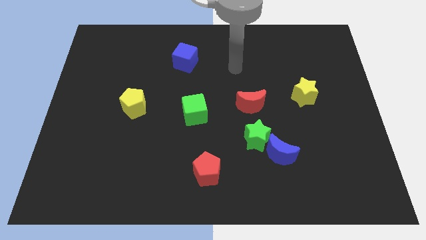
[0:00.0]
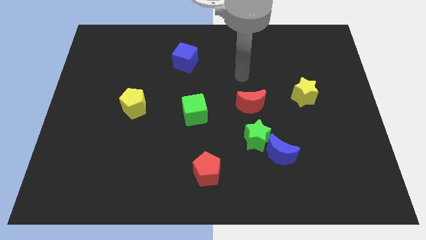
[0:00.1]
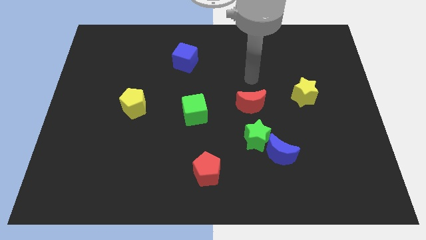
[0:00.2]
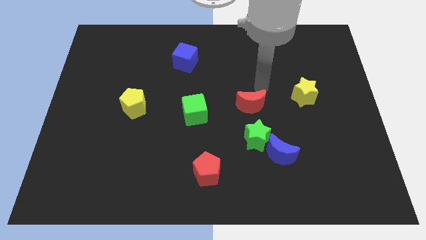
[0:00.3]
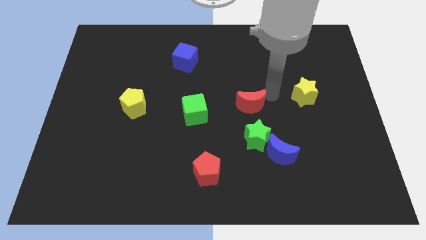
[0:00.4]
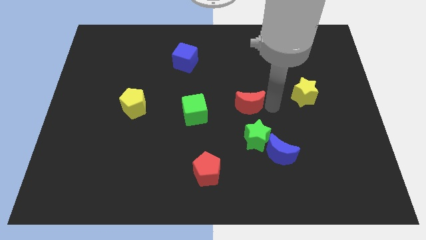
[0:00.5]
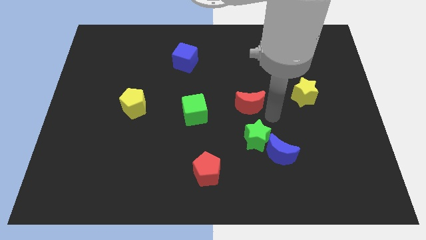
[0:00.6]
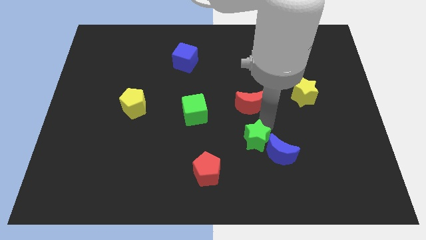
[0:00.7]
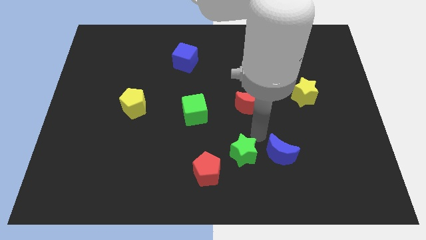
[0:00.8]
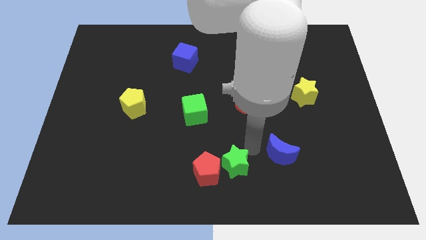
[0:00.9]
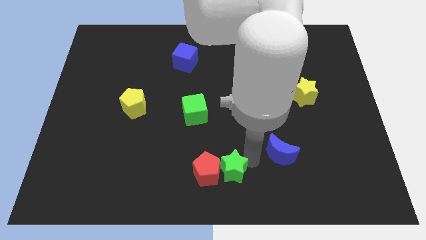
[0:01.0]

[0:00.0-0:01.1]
separate the blue moon from the green star

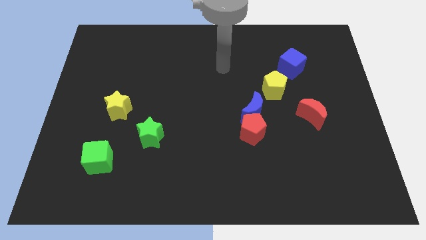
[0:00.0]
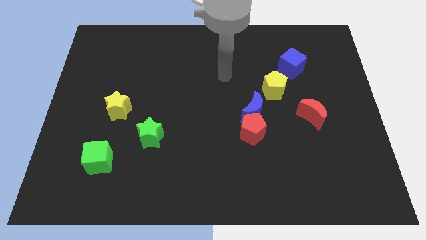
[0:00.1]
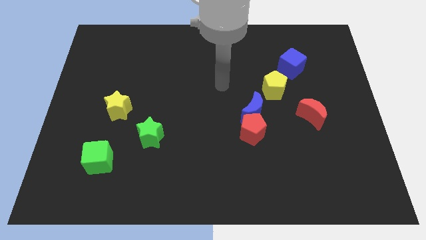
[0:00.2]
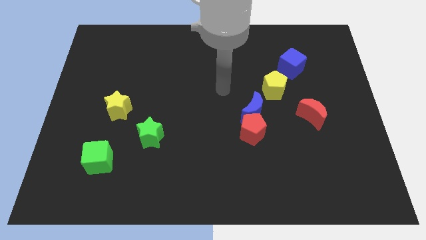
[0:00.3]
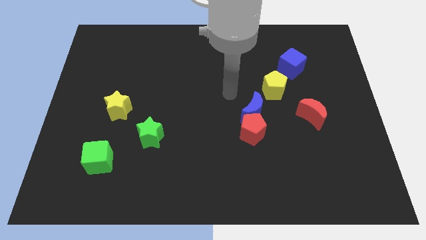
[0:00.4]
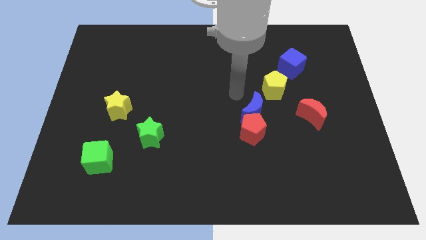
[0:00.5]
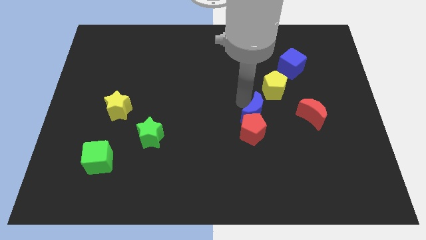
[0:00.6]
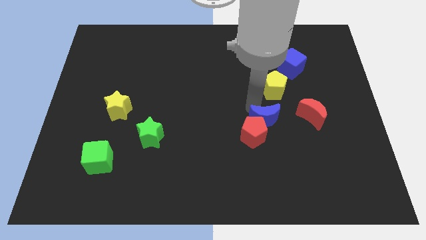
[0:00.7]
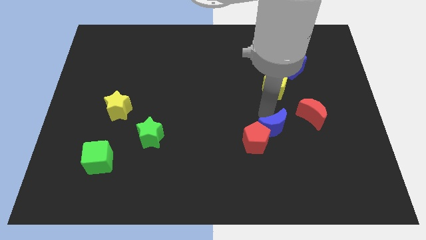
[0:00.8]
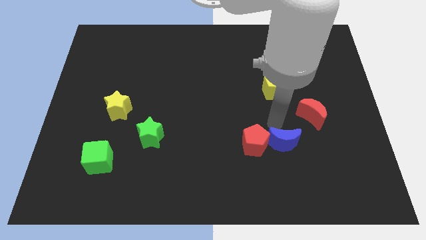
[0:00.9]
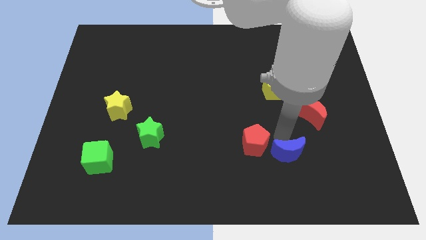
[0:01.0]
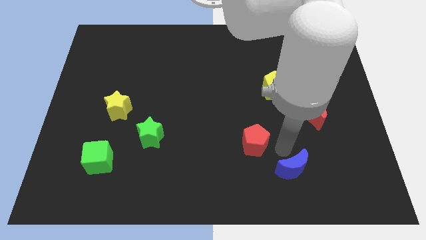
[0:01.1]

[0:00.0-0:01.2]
separate the red pentagon from the blue moon

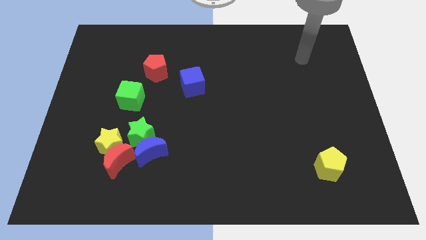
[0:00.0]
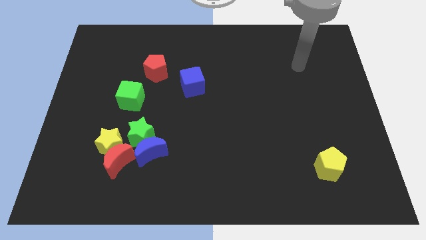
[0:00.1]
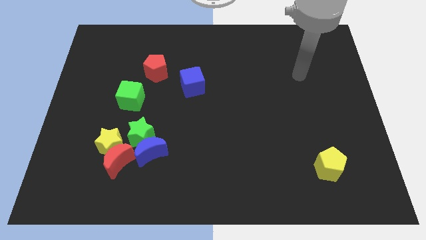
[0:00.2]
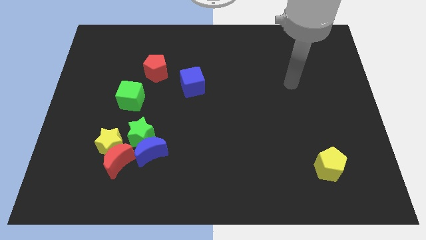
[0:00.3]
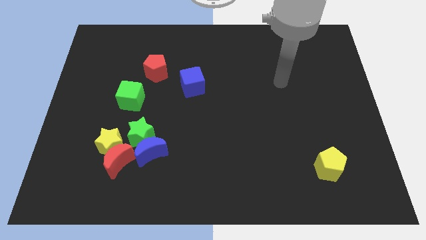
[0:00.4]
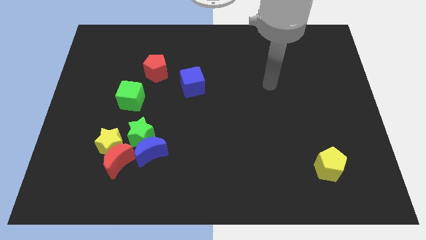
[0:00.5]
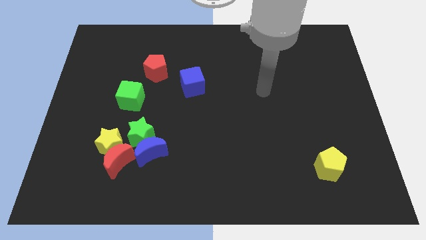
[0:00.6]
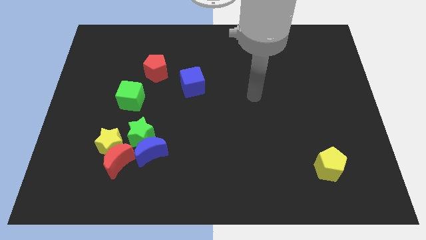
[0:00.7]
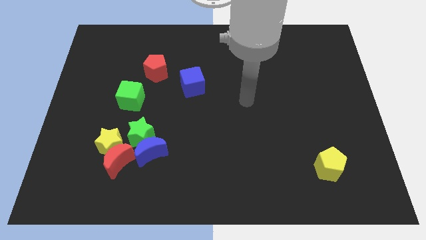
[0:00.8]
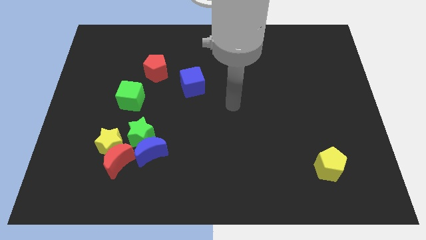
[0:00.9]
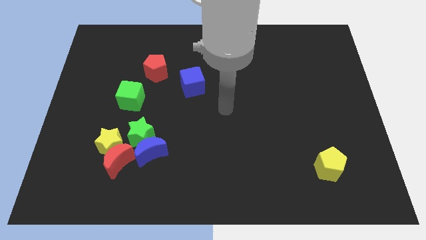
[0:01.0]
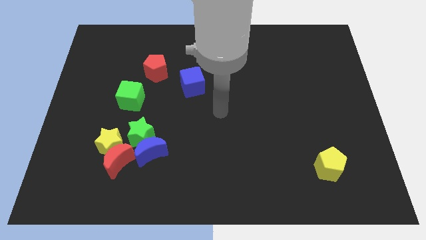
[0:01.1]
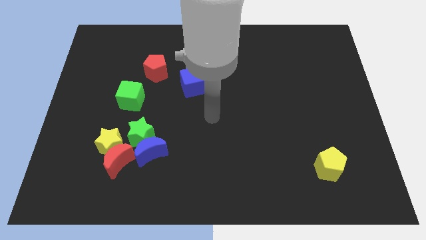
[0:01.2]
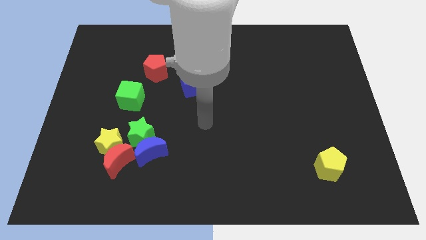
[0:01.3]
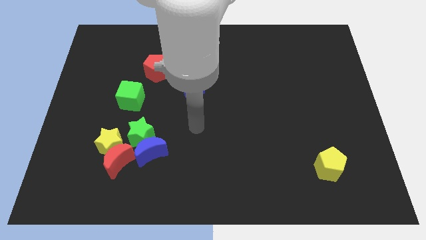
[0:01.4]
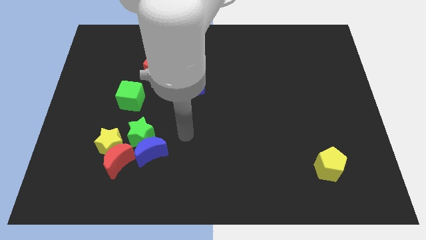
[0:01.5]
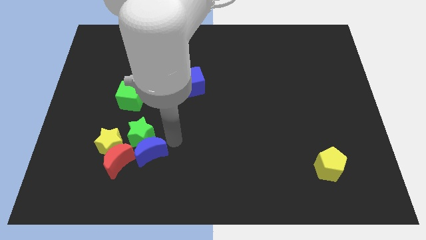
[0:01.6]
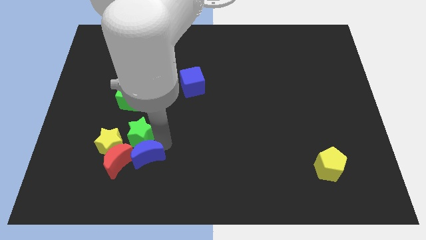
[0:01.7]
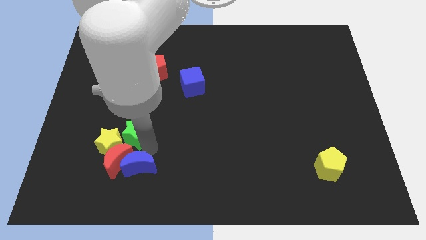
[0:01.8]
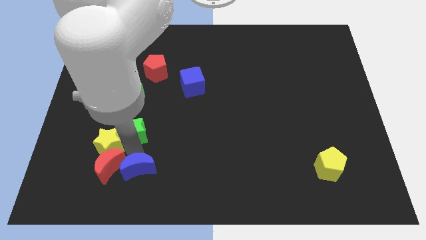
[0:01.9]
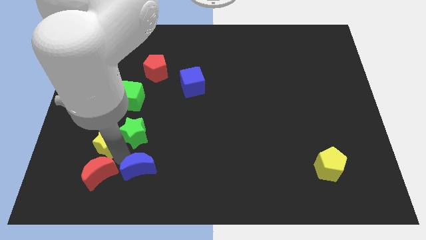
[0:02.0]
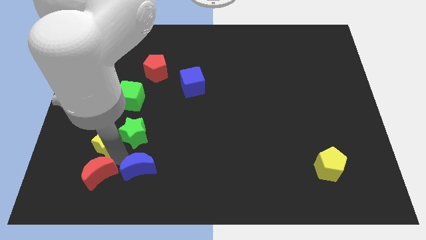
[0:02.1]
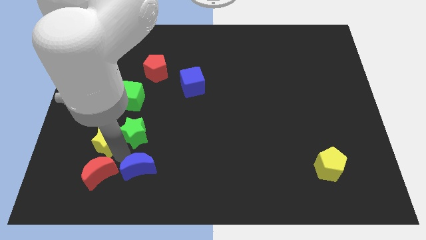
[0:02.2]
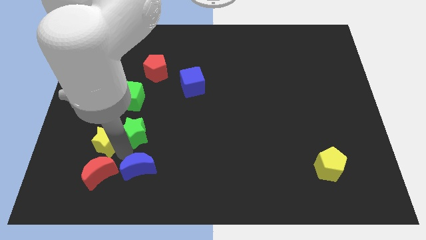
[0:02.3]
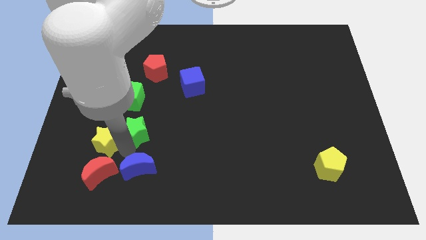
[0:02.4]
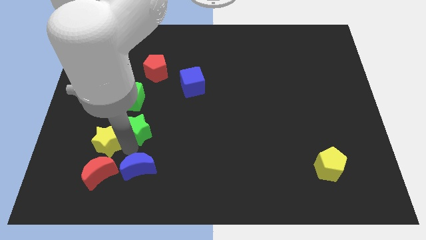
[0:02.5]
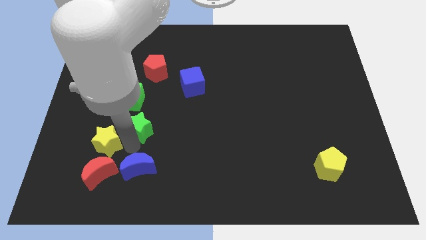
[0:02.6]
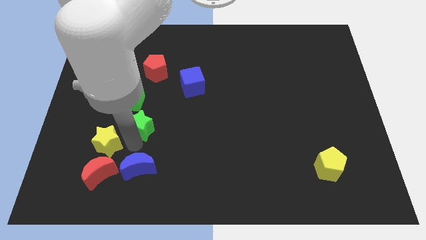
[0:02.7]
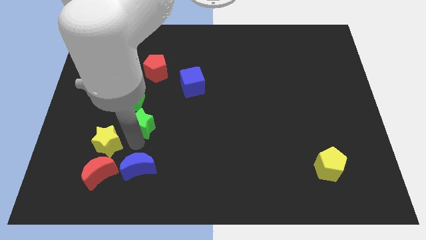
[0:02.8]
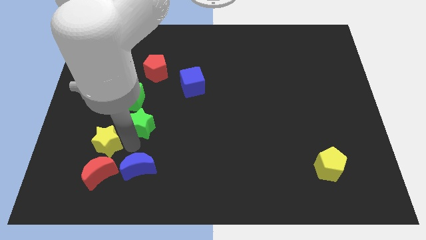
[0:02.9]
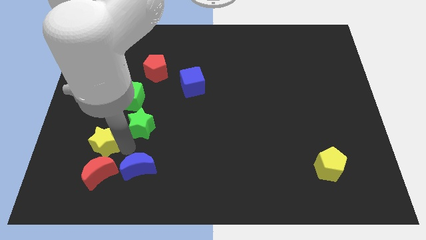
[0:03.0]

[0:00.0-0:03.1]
move the green star away from the group

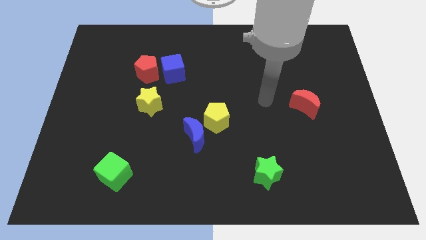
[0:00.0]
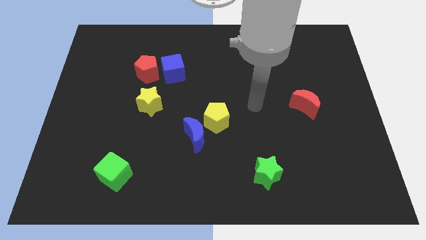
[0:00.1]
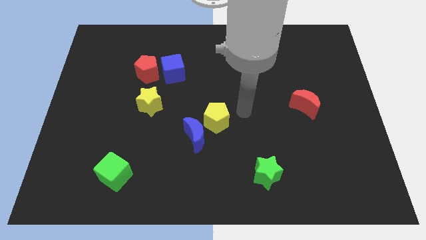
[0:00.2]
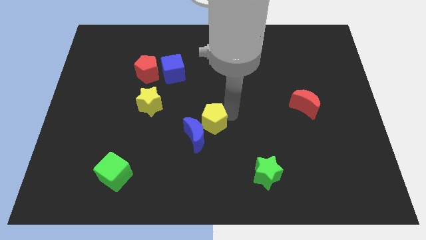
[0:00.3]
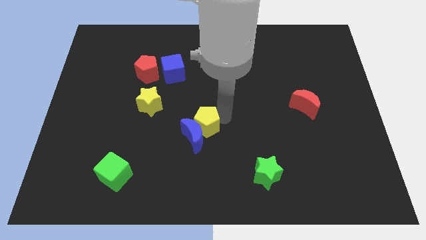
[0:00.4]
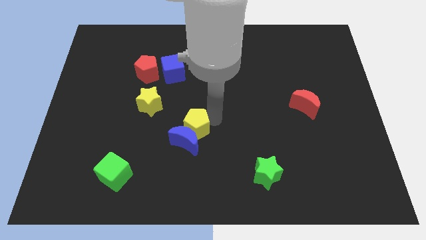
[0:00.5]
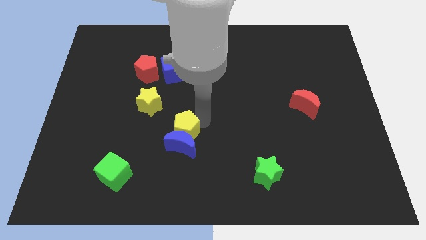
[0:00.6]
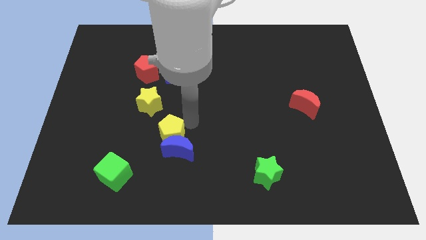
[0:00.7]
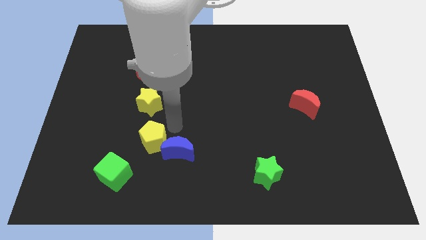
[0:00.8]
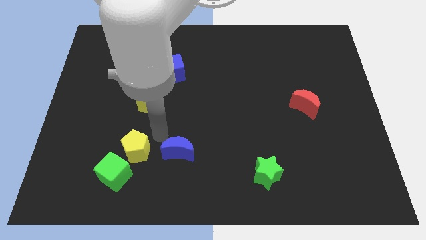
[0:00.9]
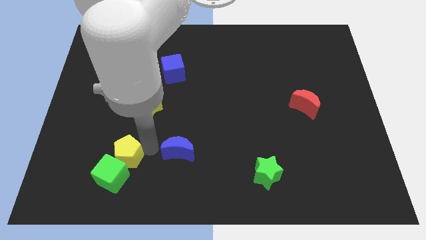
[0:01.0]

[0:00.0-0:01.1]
separate the blue moon from the yellow pentagon

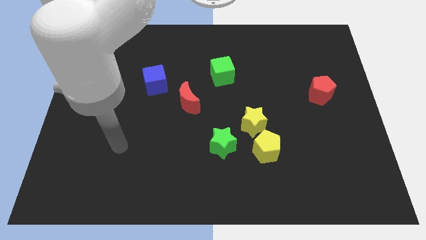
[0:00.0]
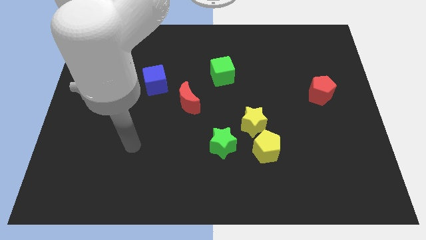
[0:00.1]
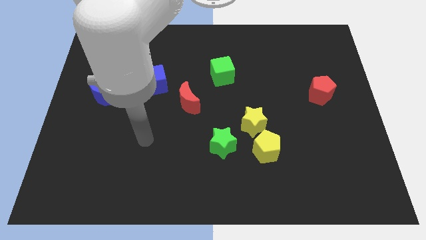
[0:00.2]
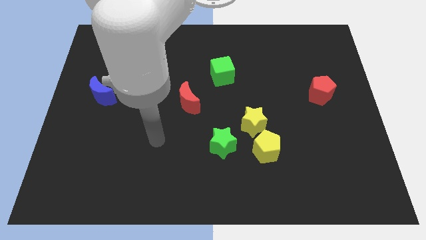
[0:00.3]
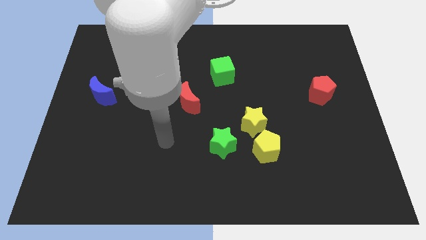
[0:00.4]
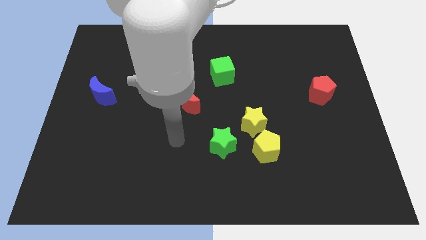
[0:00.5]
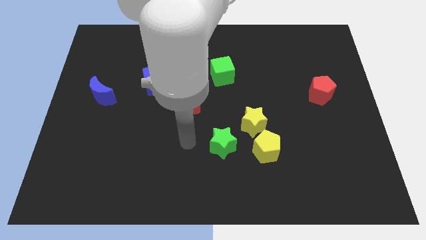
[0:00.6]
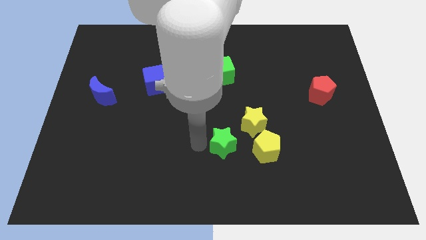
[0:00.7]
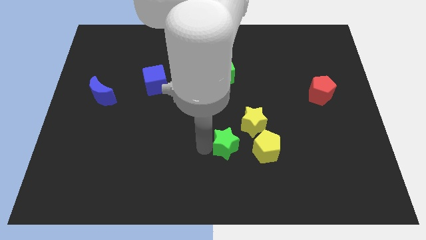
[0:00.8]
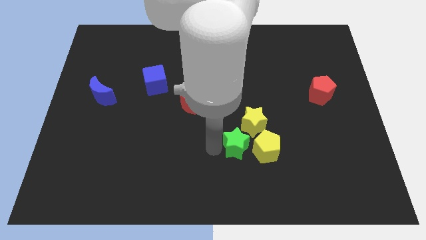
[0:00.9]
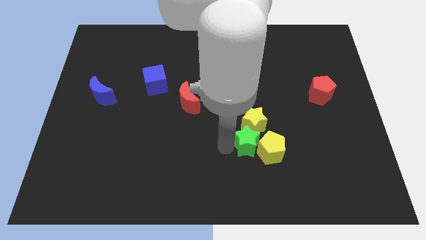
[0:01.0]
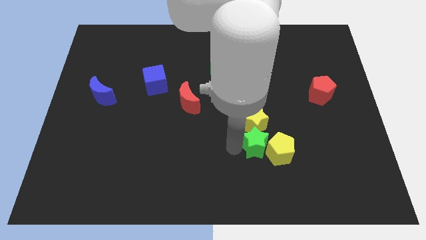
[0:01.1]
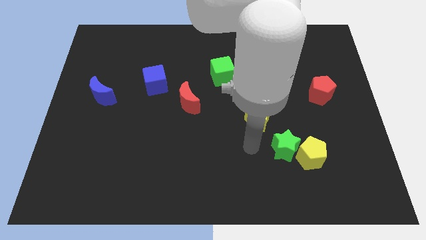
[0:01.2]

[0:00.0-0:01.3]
pull the yellow star apart from the yellow pentagon and green star

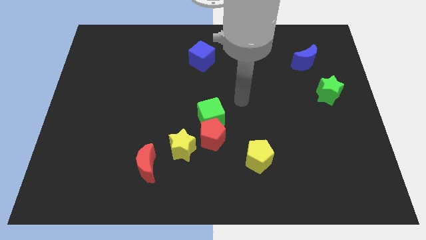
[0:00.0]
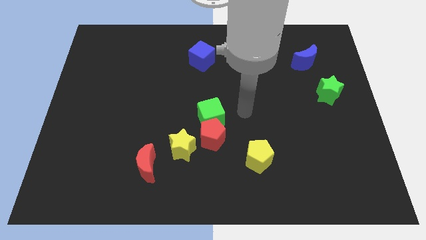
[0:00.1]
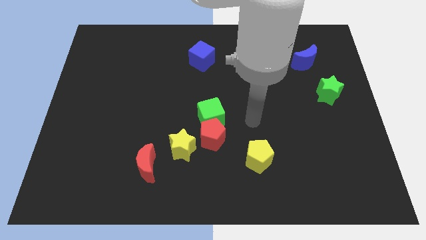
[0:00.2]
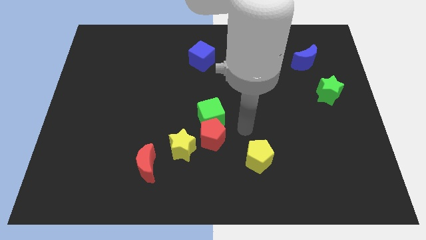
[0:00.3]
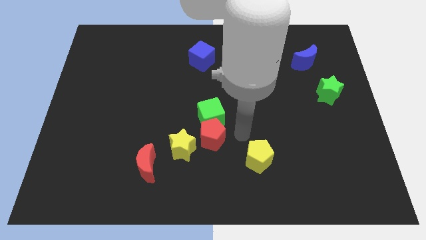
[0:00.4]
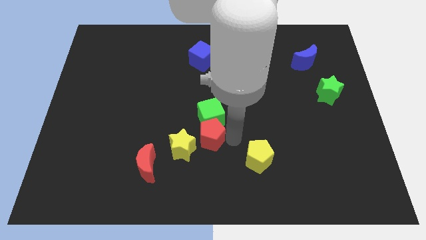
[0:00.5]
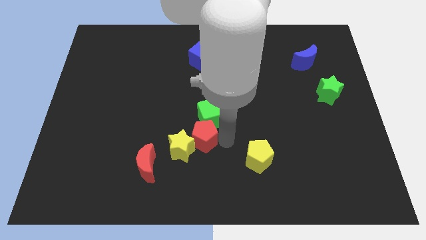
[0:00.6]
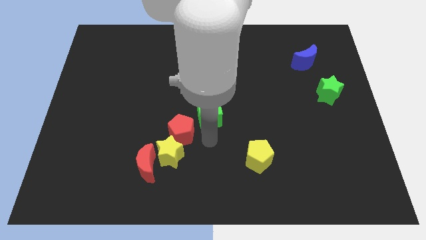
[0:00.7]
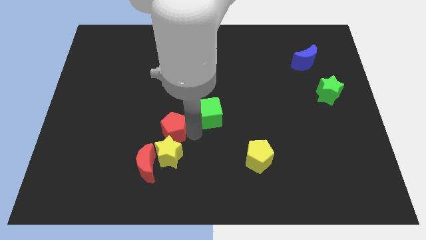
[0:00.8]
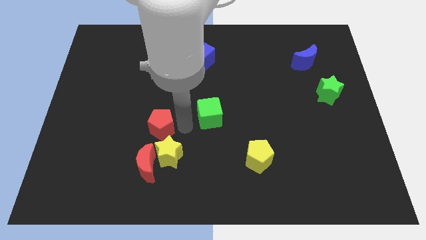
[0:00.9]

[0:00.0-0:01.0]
separate the green cube from the red pentagon

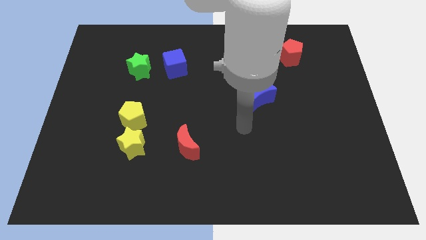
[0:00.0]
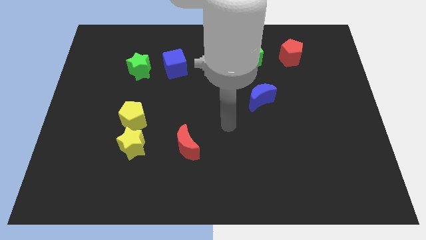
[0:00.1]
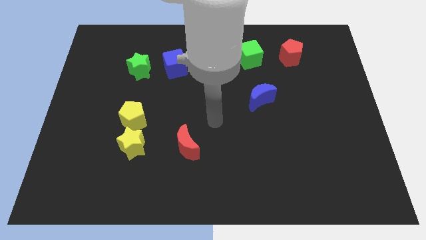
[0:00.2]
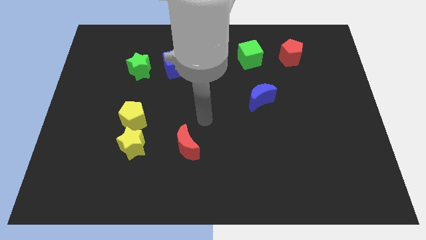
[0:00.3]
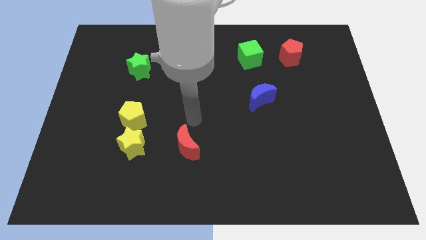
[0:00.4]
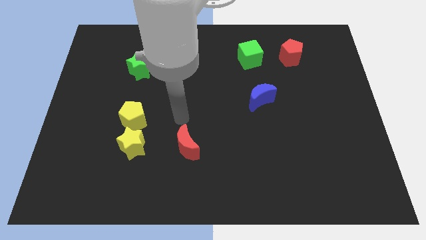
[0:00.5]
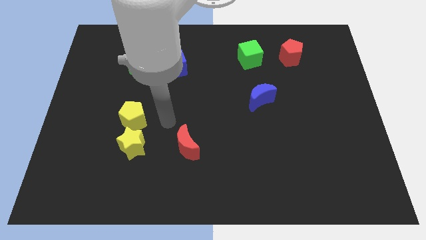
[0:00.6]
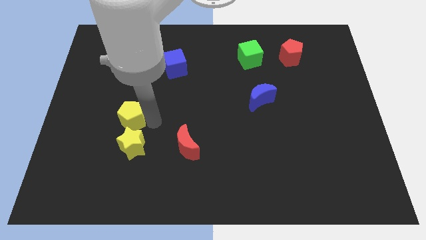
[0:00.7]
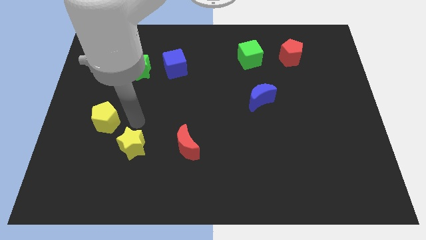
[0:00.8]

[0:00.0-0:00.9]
move the yellow star away from the yellow pentagon
